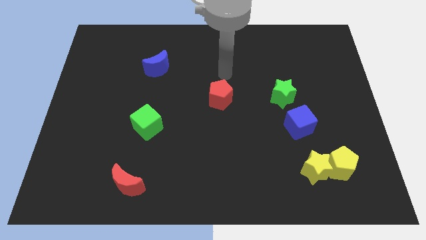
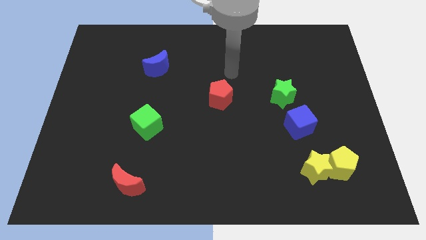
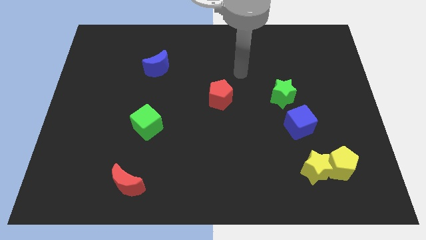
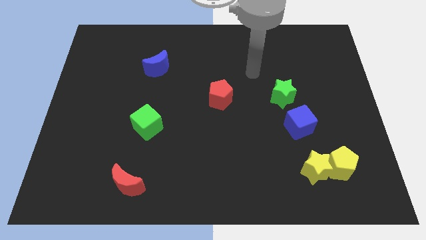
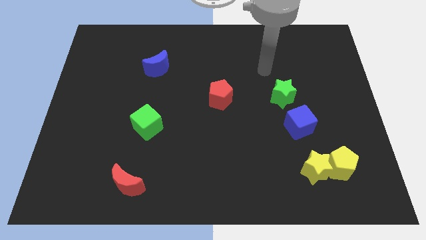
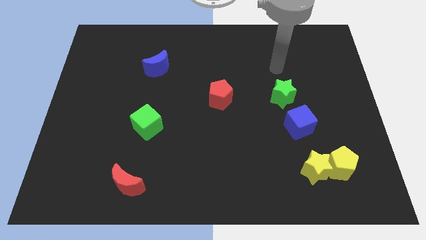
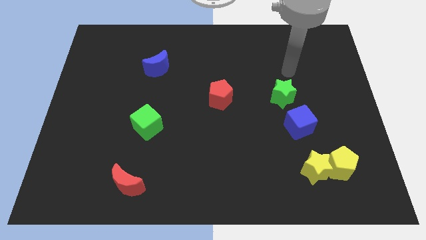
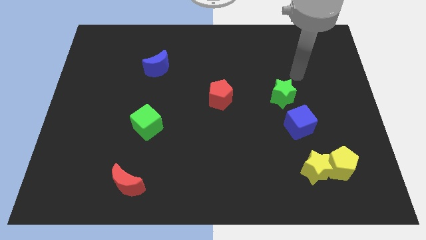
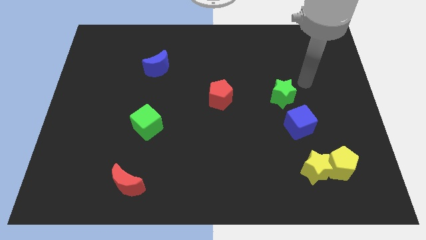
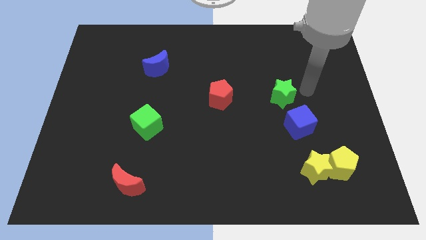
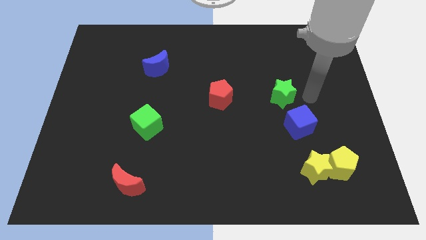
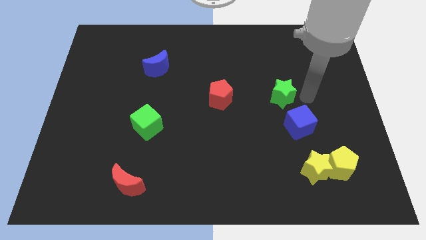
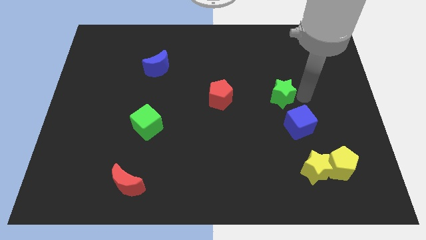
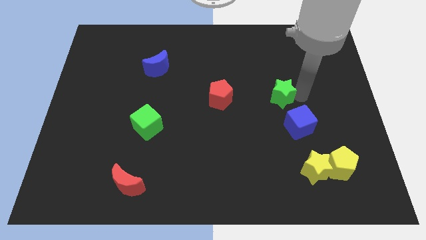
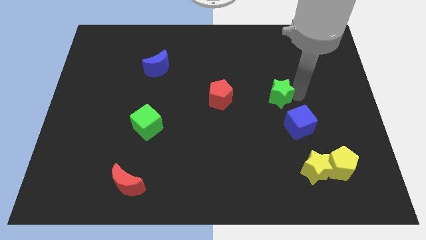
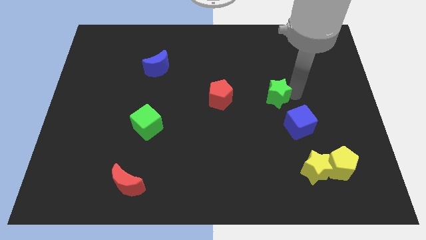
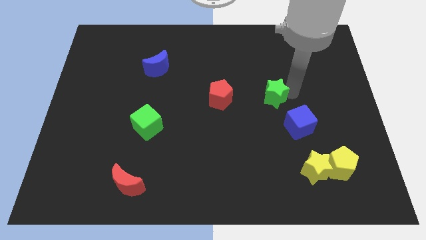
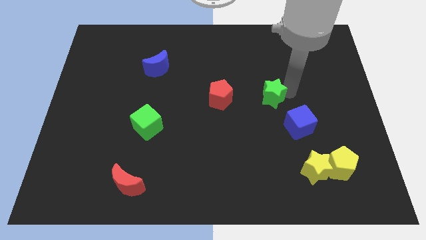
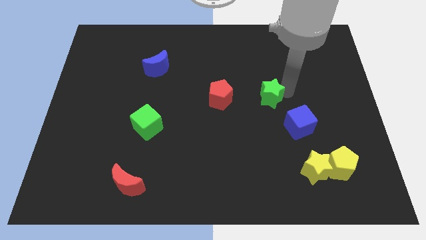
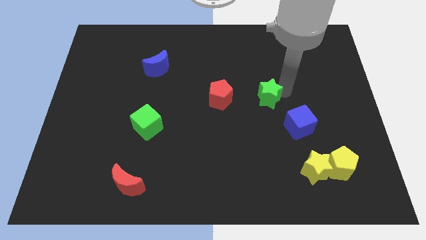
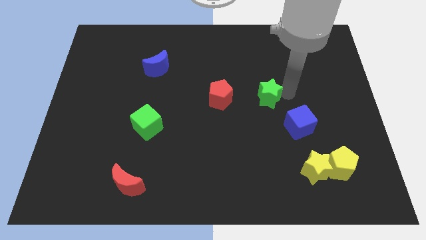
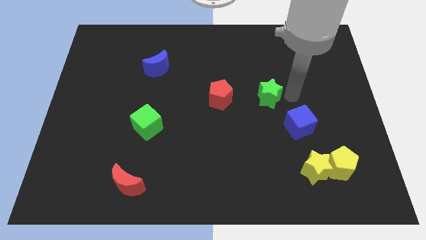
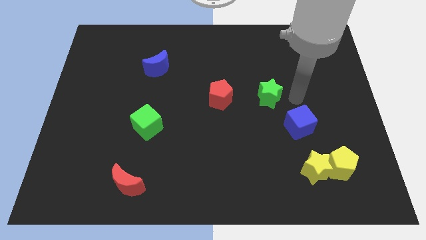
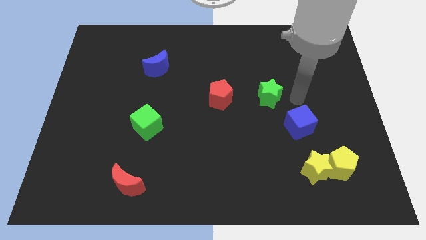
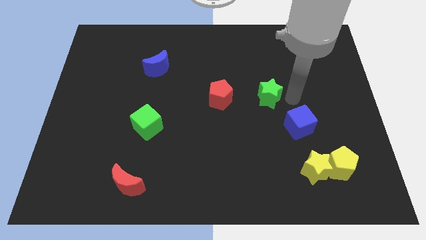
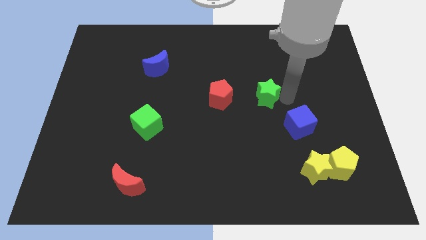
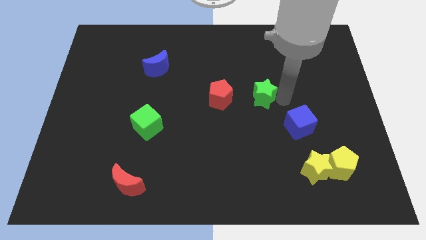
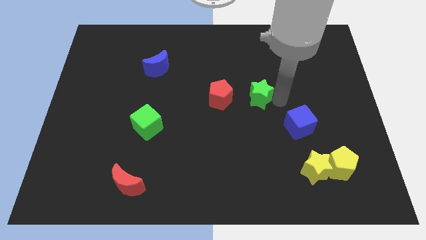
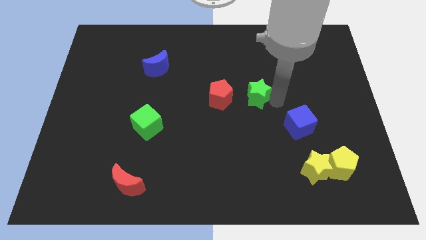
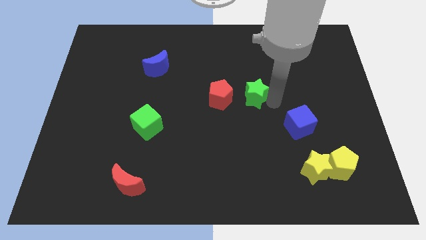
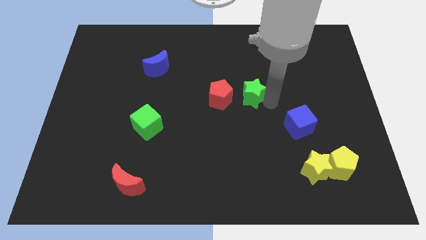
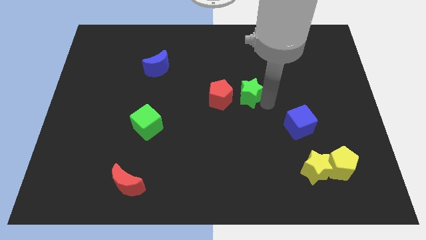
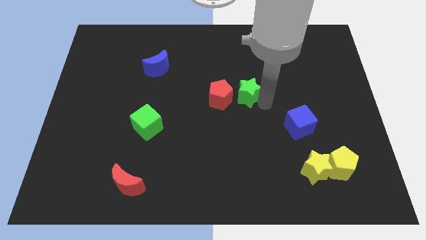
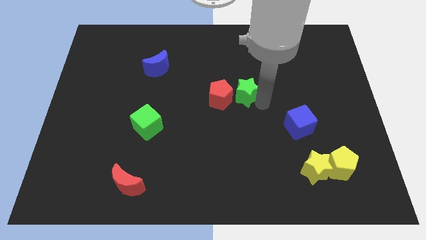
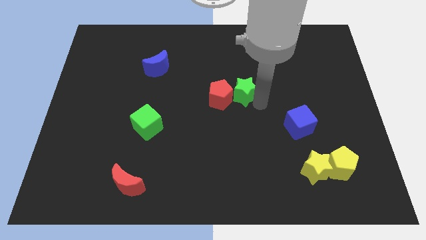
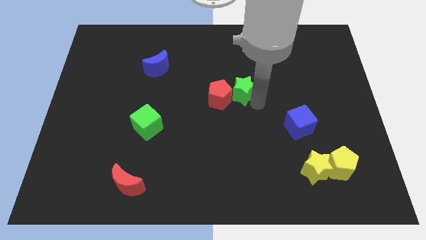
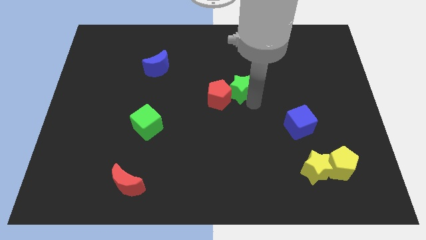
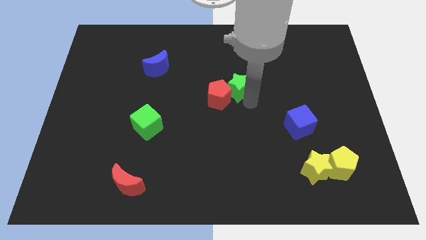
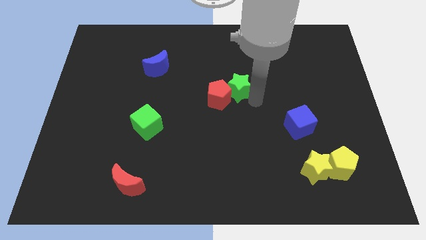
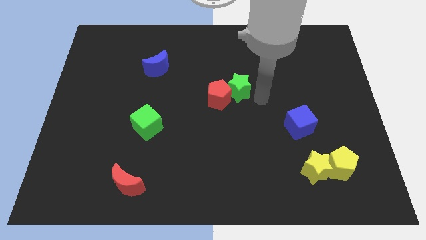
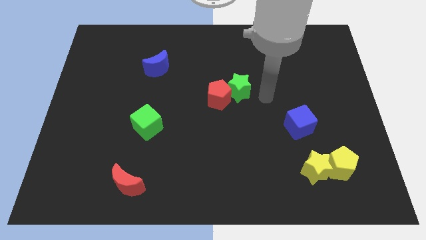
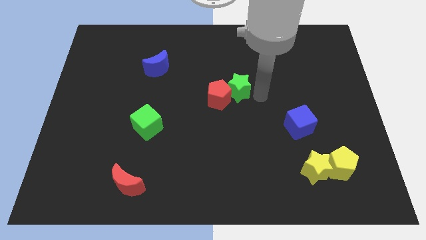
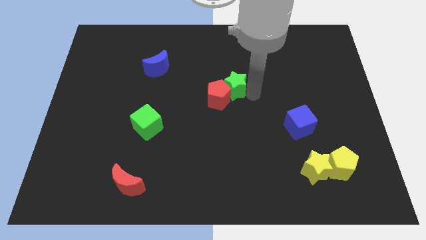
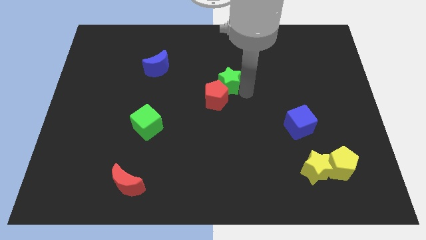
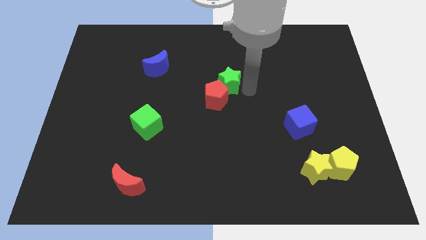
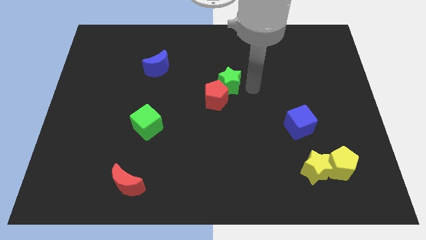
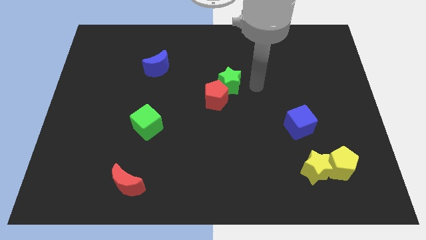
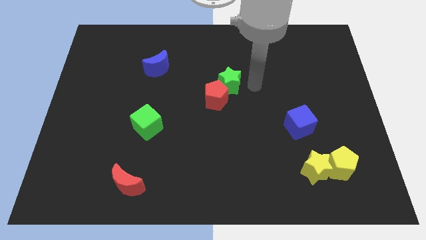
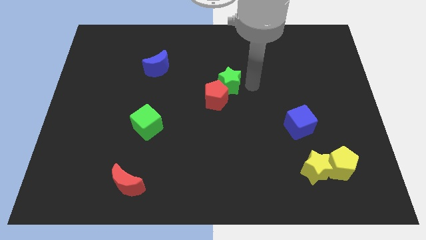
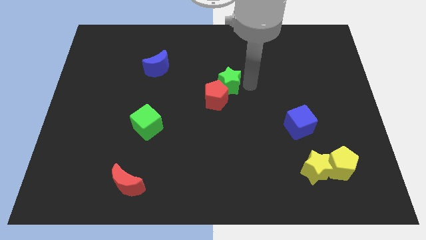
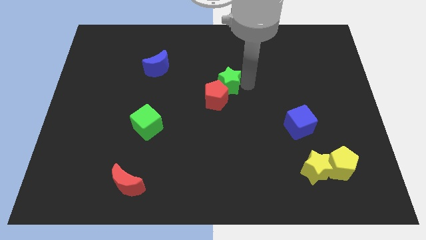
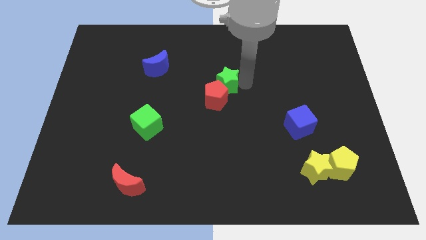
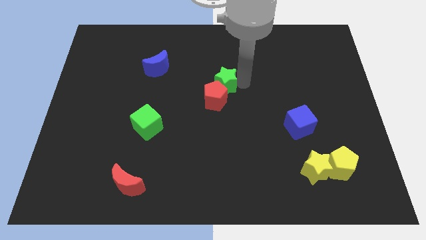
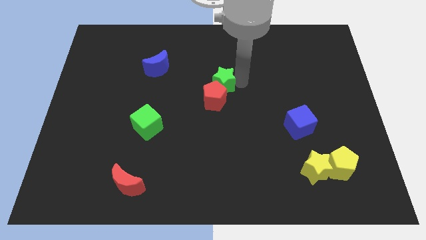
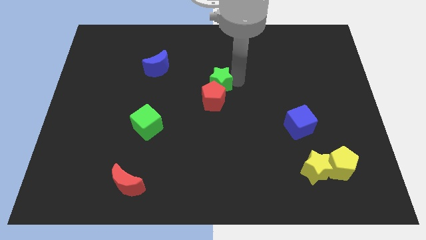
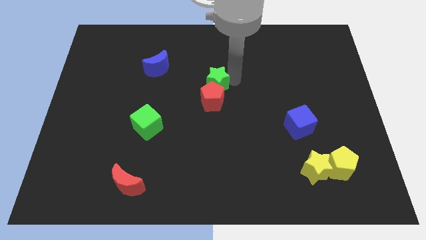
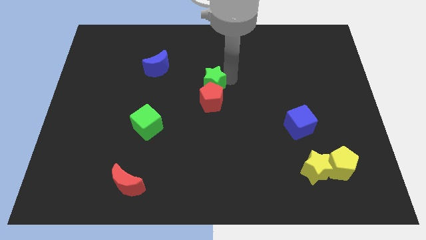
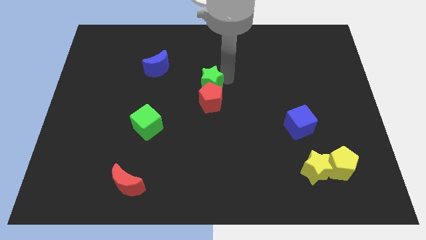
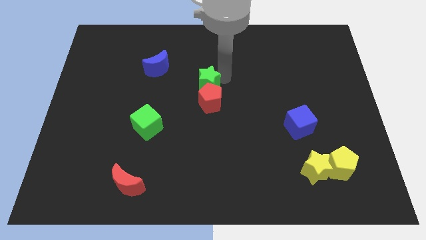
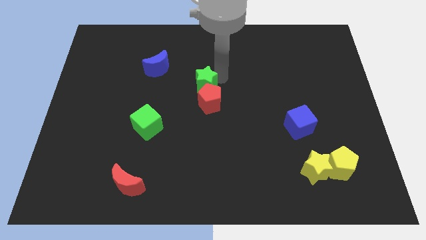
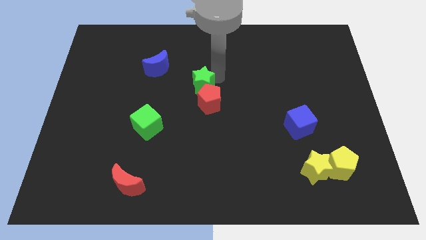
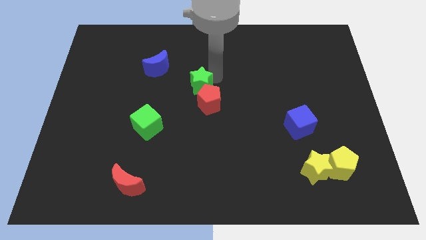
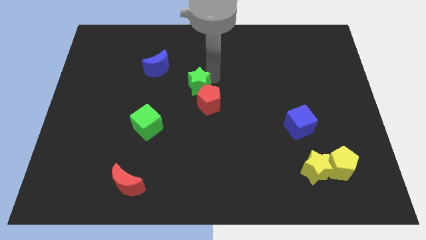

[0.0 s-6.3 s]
push the green star left

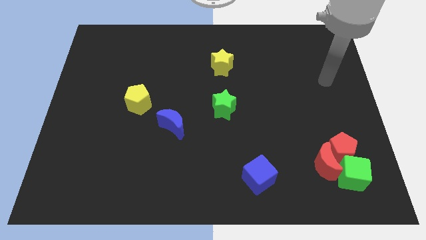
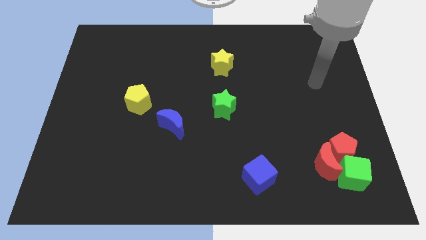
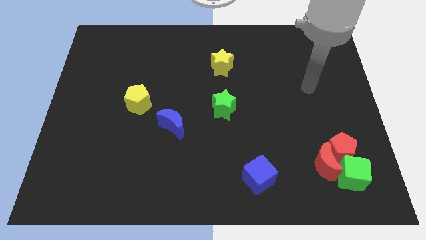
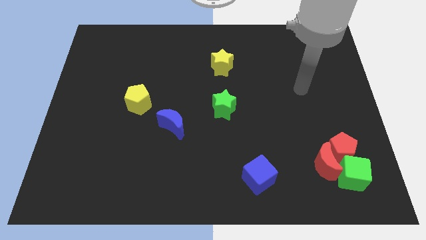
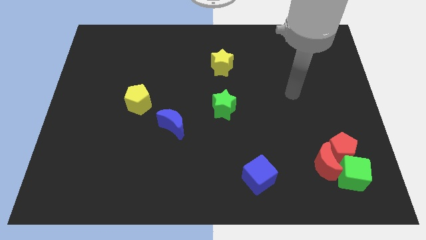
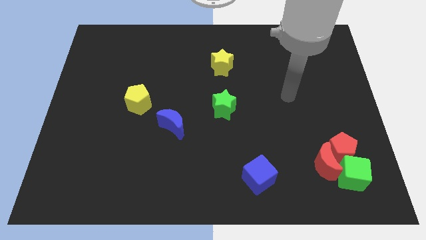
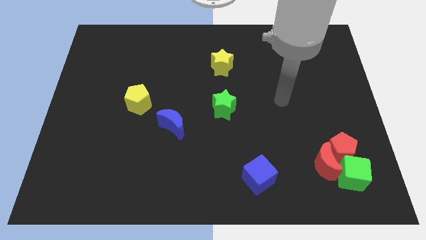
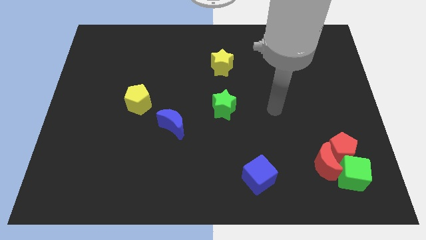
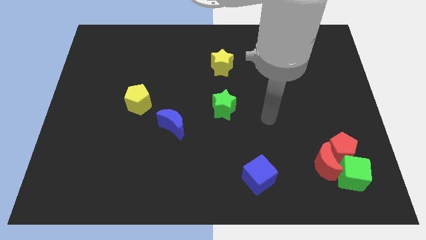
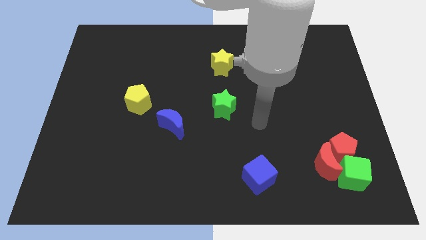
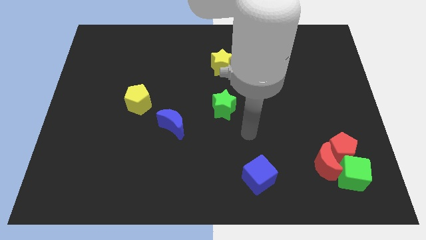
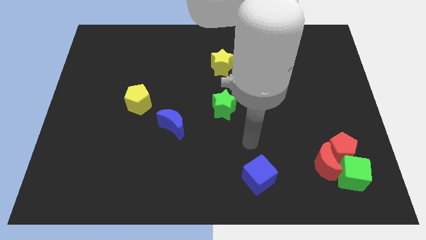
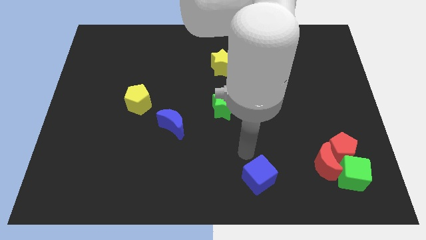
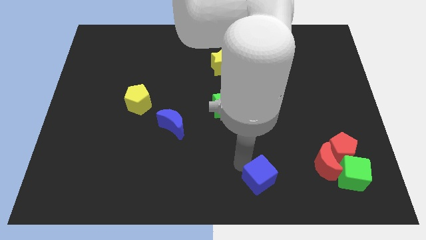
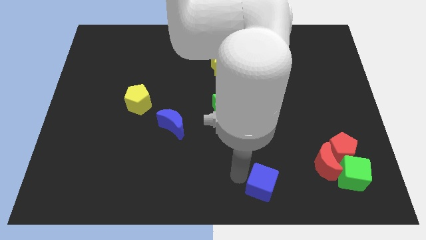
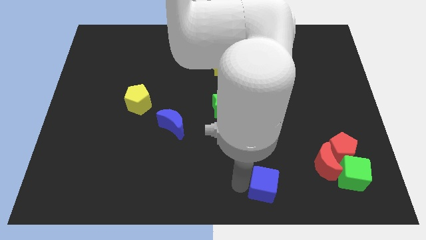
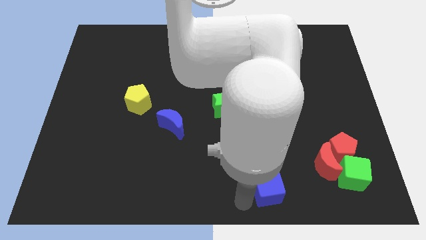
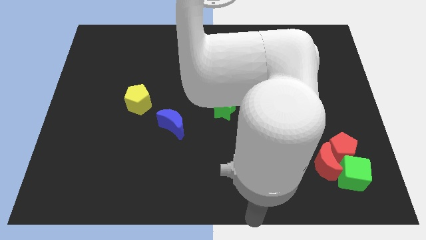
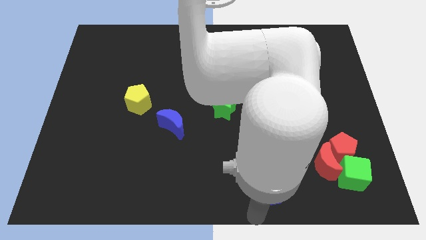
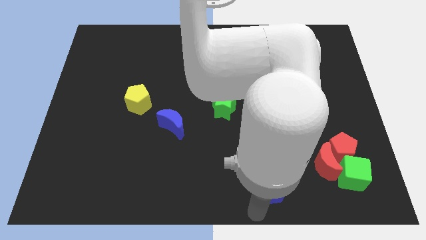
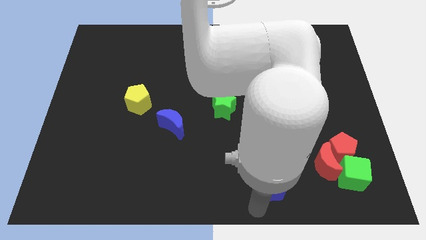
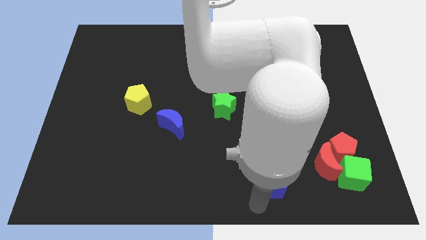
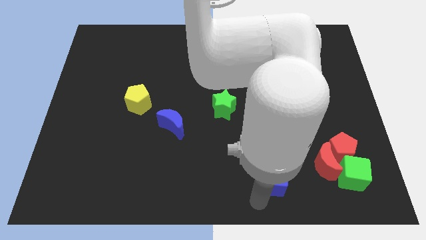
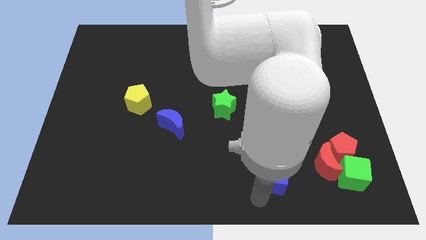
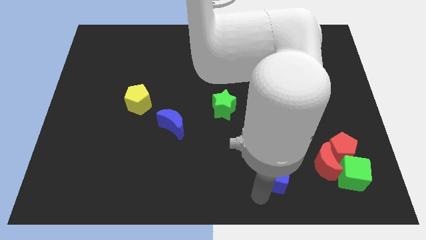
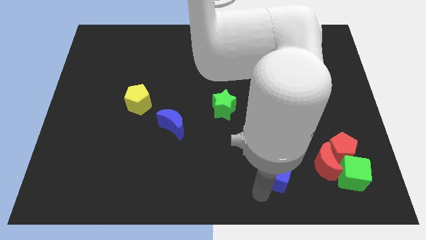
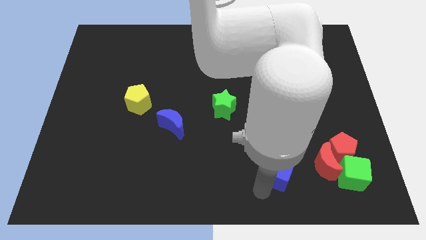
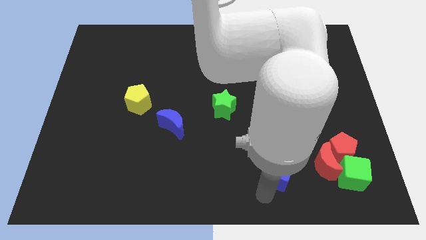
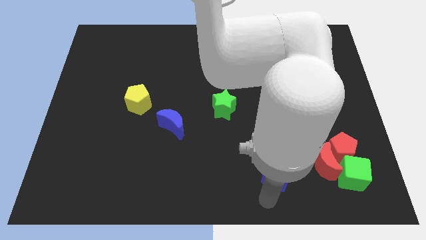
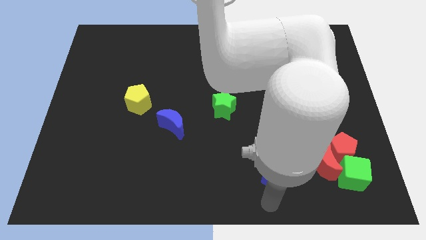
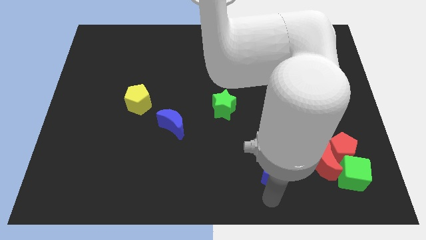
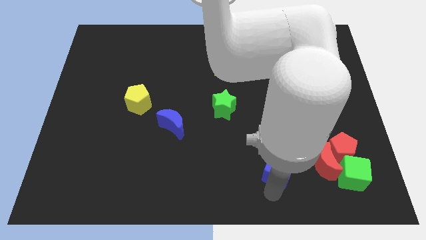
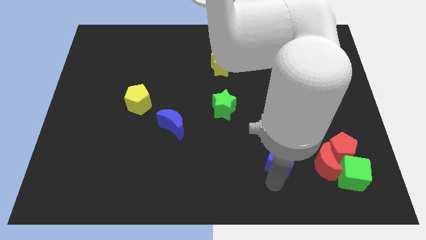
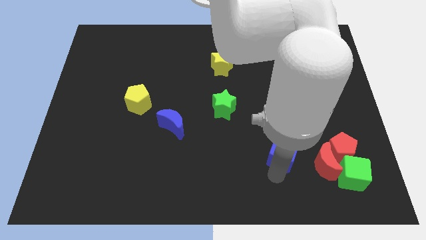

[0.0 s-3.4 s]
move the blue cube a little up and to the right
